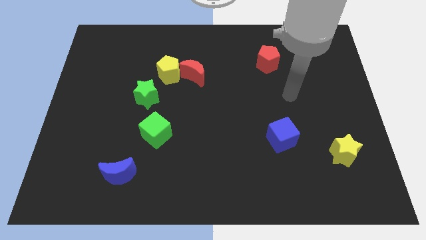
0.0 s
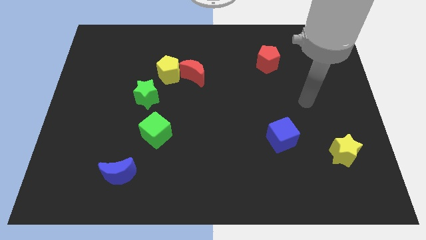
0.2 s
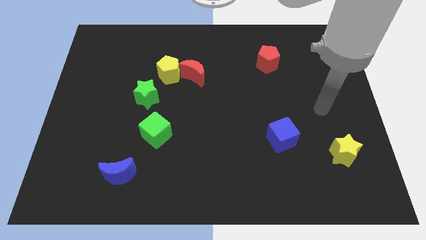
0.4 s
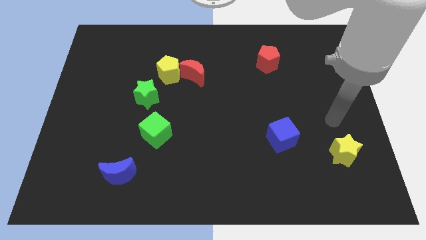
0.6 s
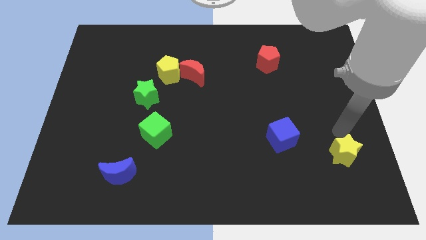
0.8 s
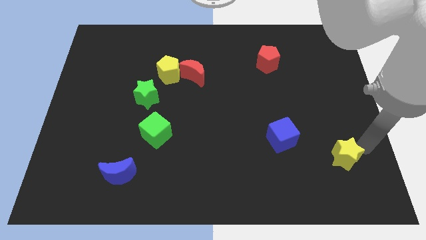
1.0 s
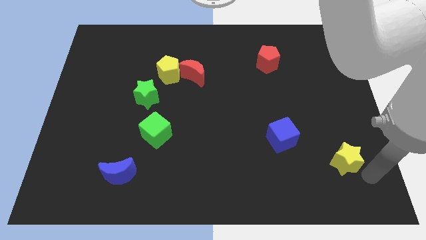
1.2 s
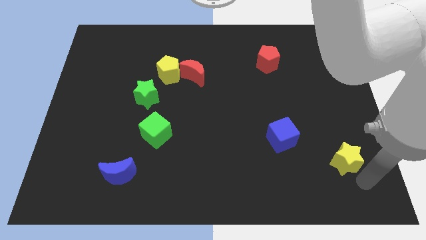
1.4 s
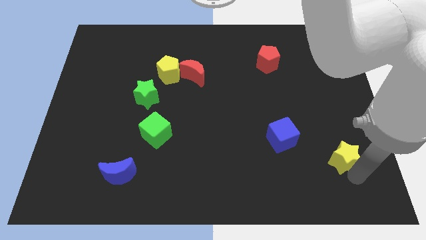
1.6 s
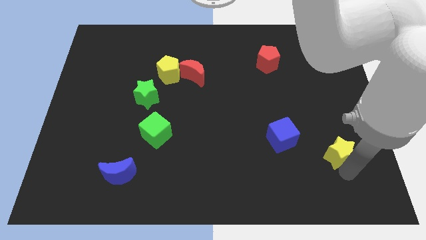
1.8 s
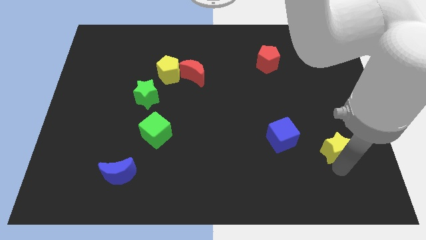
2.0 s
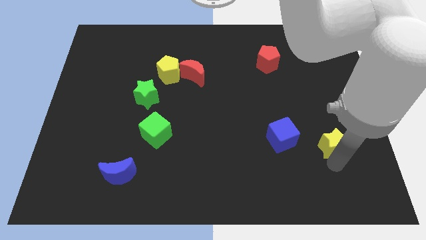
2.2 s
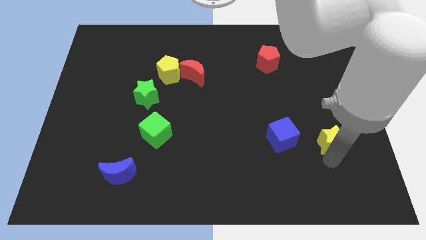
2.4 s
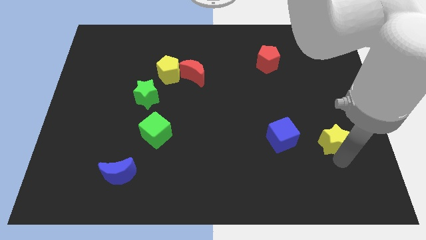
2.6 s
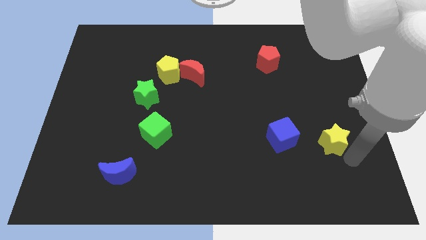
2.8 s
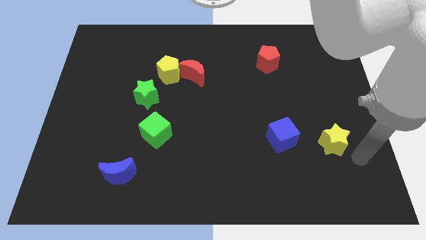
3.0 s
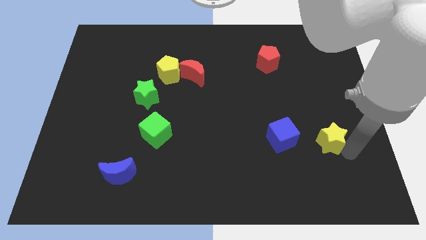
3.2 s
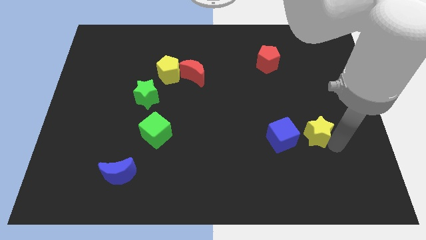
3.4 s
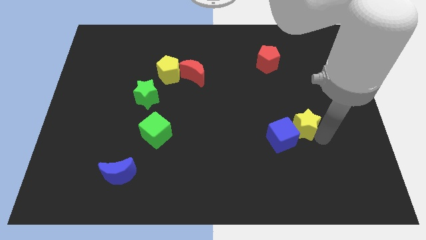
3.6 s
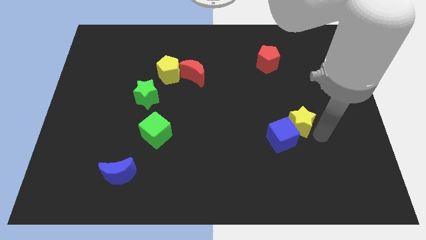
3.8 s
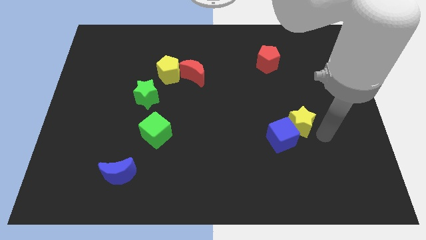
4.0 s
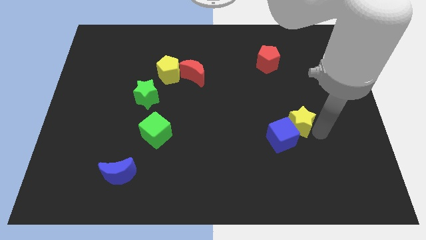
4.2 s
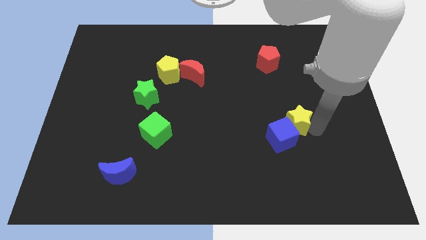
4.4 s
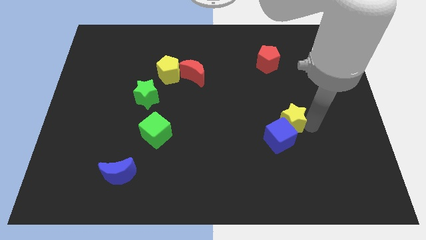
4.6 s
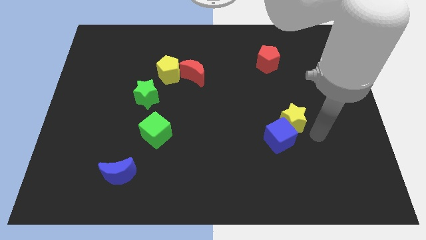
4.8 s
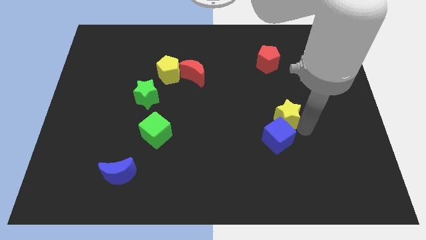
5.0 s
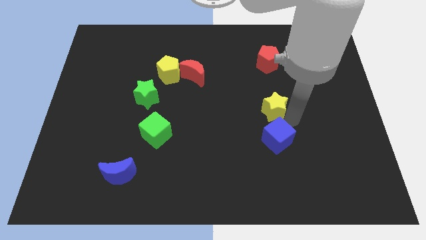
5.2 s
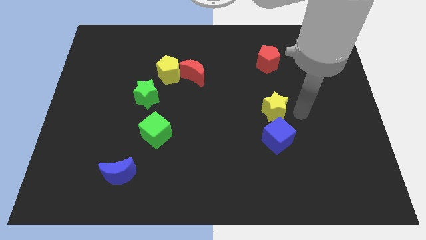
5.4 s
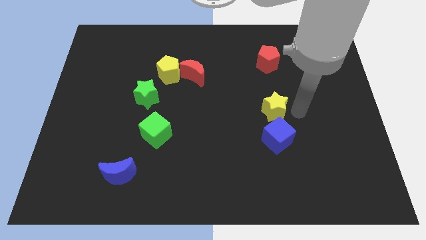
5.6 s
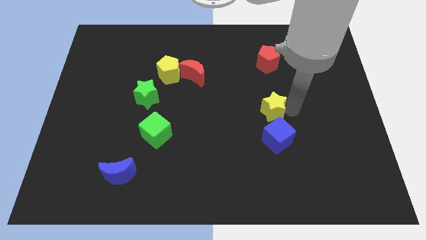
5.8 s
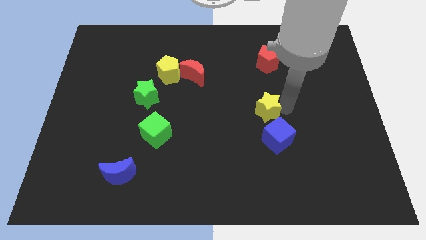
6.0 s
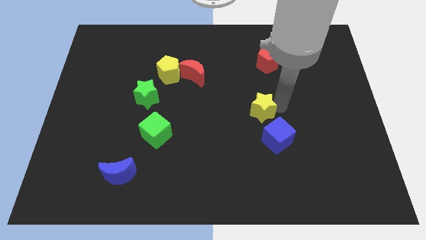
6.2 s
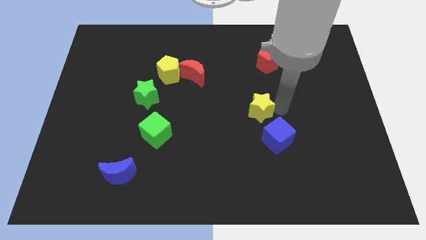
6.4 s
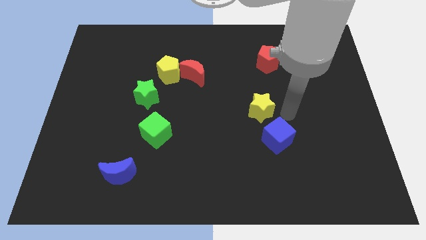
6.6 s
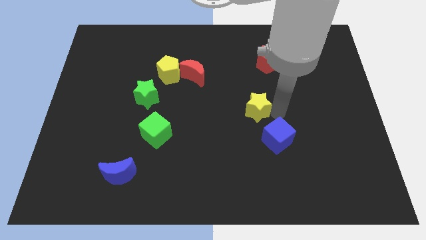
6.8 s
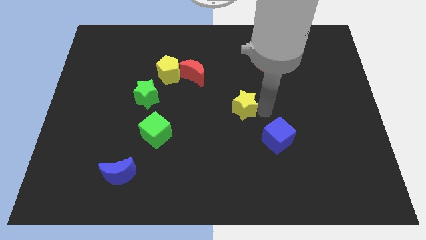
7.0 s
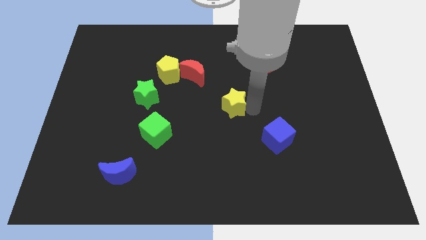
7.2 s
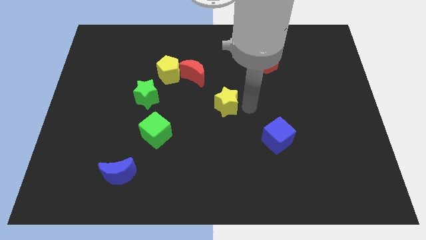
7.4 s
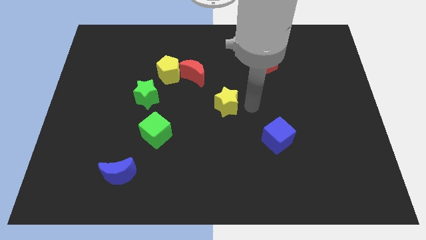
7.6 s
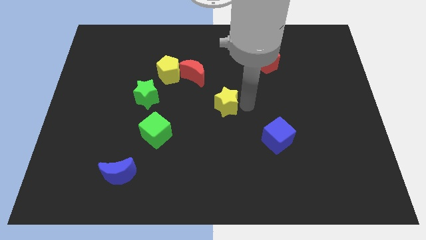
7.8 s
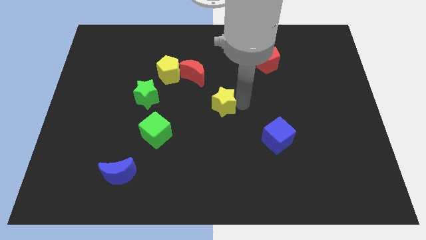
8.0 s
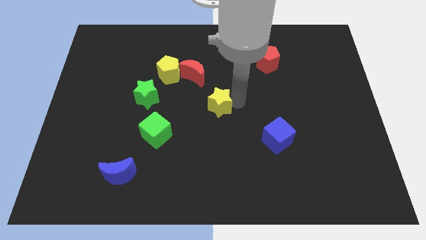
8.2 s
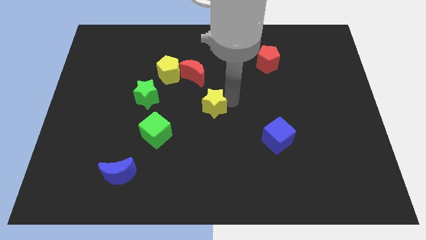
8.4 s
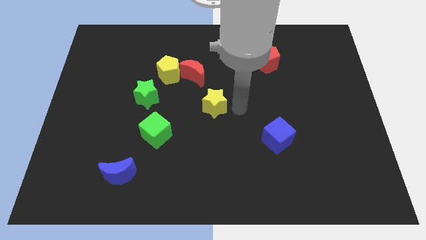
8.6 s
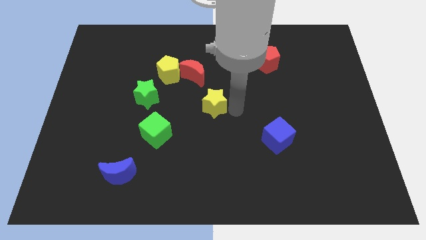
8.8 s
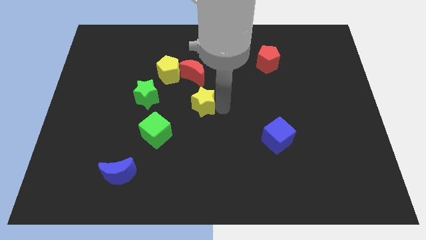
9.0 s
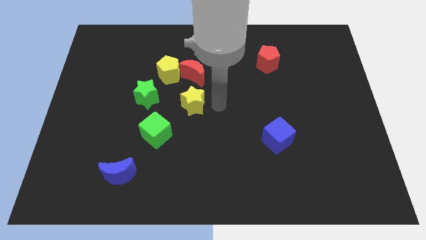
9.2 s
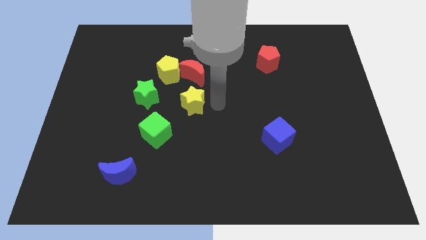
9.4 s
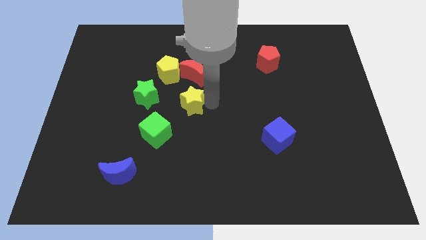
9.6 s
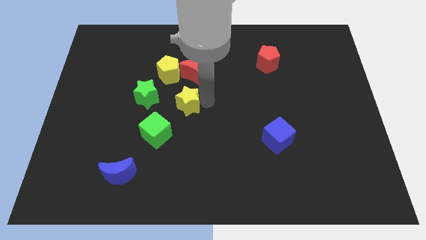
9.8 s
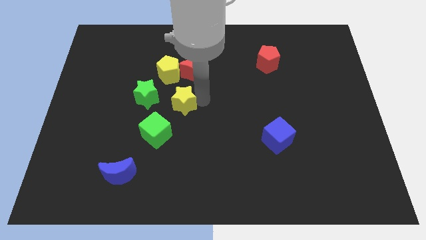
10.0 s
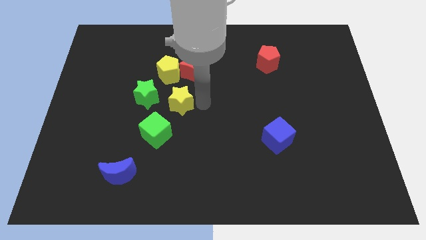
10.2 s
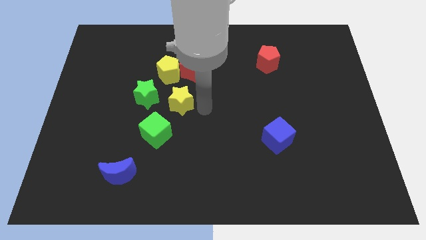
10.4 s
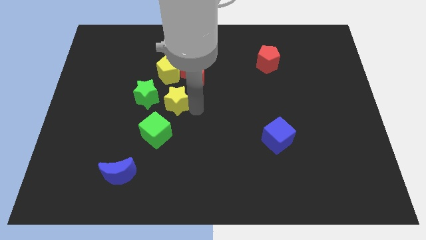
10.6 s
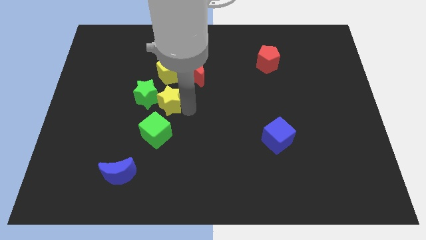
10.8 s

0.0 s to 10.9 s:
push the yellow star towards the green star

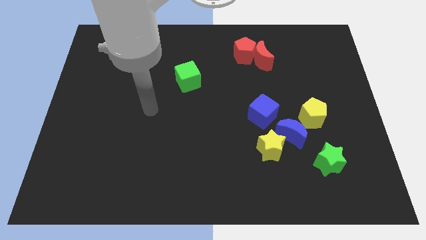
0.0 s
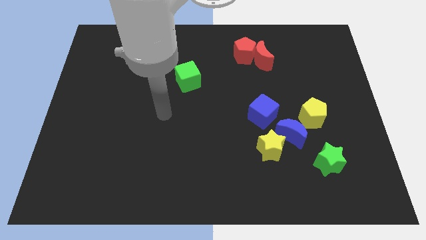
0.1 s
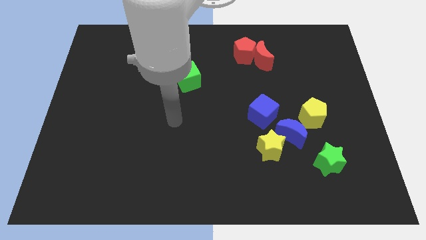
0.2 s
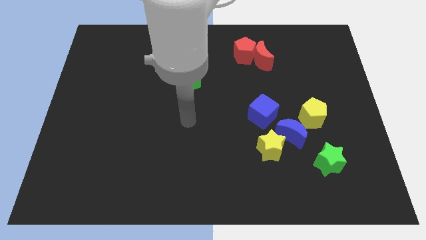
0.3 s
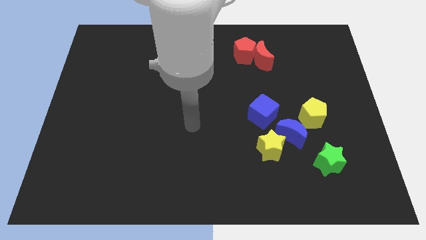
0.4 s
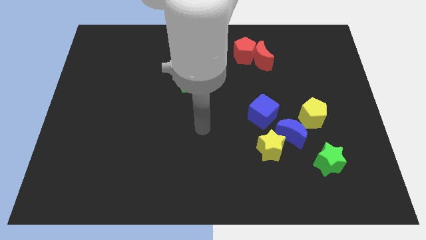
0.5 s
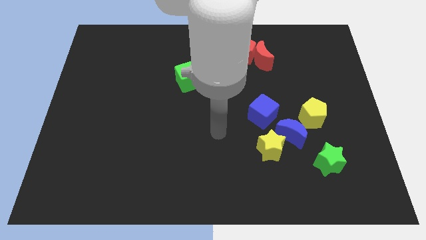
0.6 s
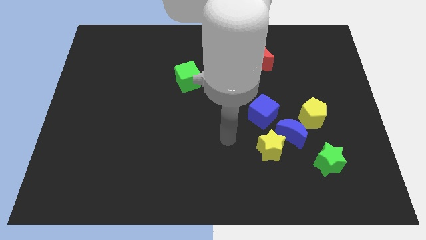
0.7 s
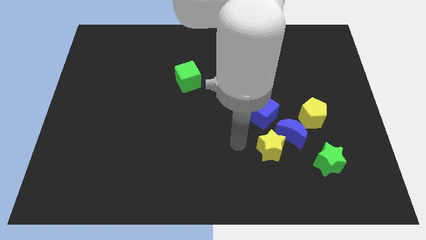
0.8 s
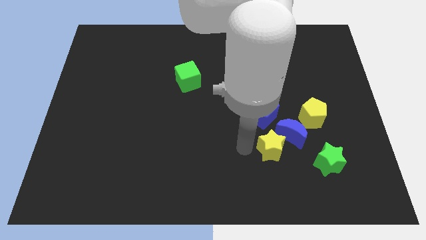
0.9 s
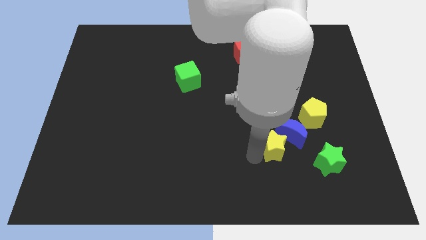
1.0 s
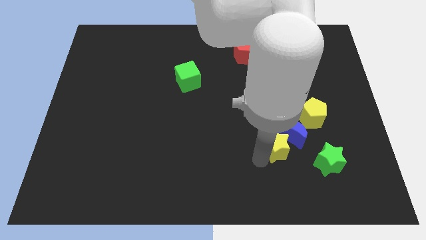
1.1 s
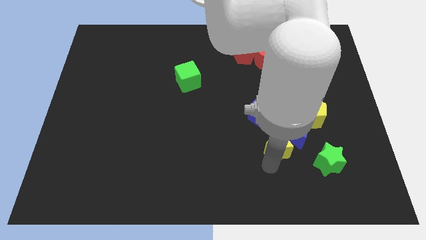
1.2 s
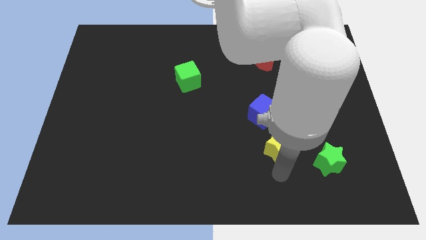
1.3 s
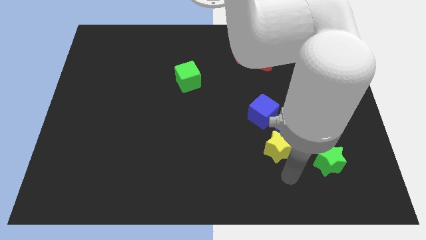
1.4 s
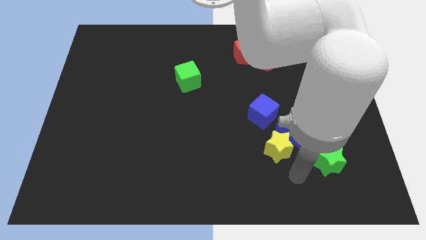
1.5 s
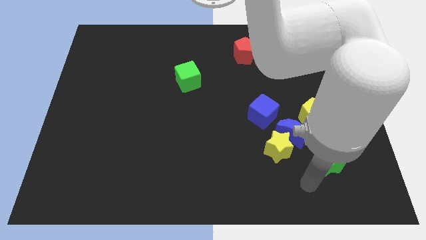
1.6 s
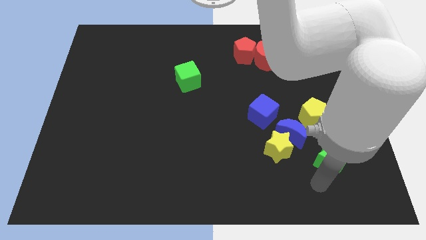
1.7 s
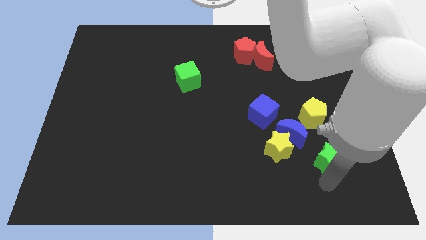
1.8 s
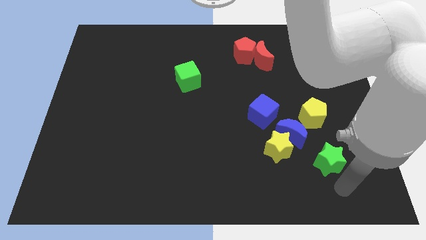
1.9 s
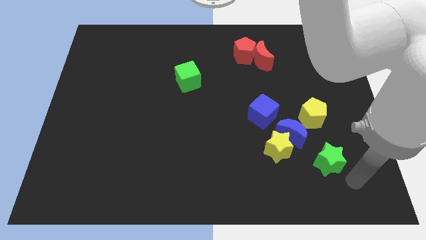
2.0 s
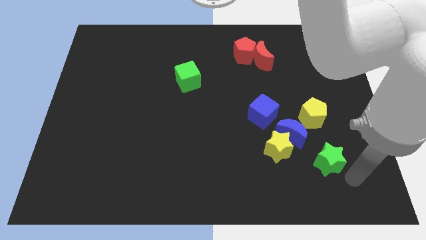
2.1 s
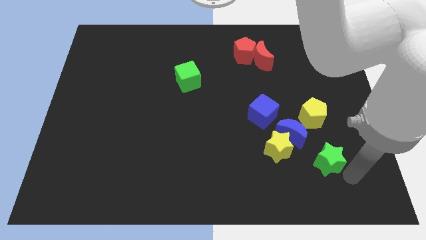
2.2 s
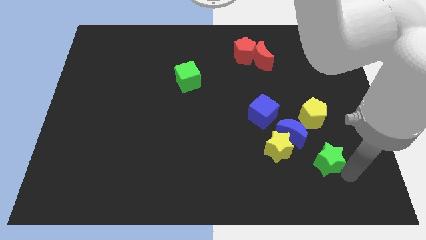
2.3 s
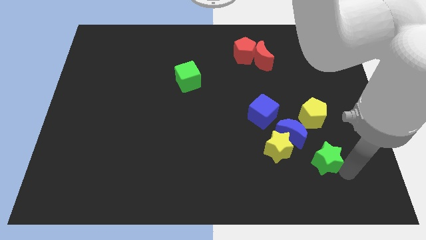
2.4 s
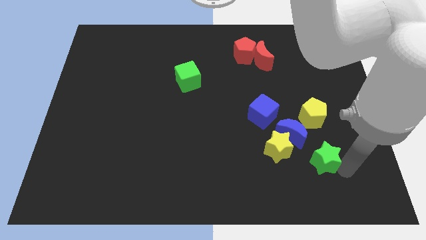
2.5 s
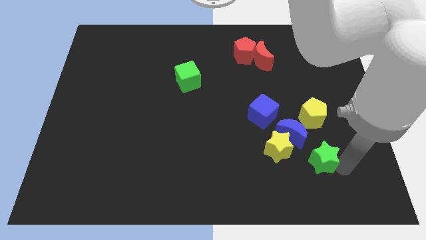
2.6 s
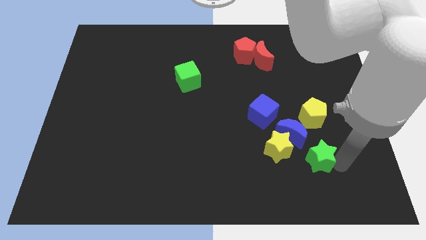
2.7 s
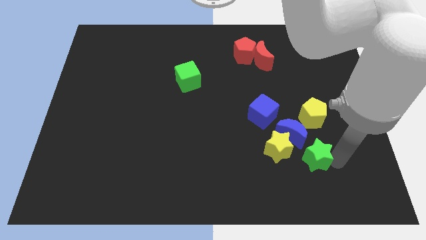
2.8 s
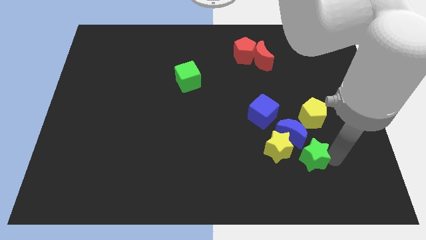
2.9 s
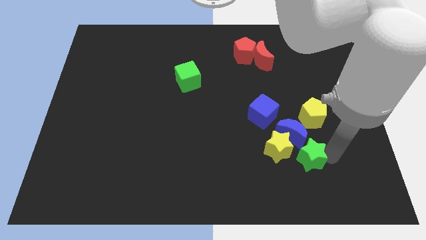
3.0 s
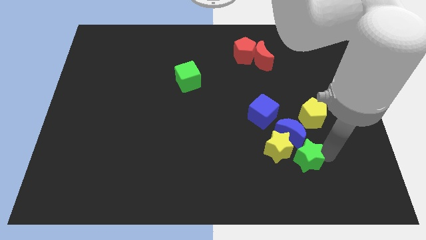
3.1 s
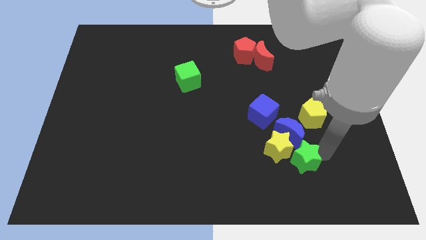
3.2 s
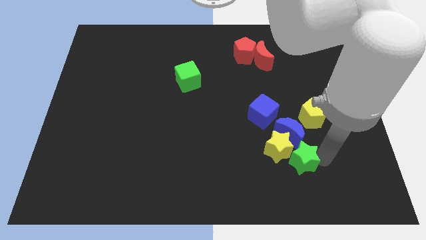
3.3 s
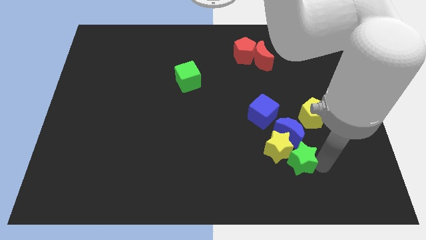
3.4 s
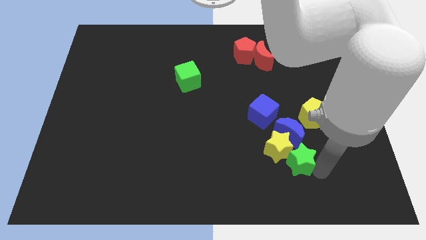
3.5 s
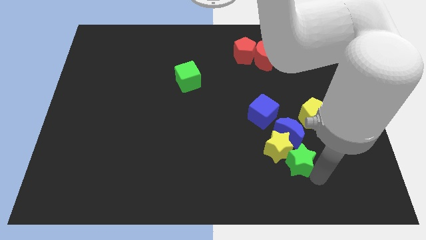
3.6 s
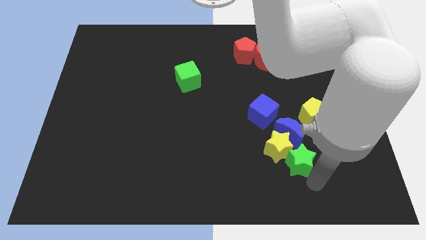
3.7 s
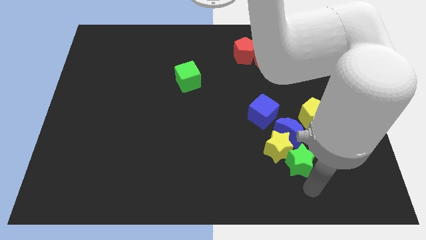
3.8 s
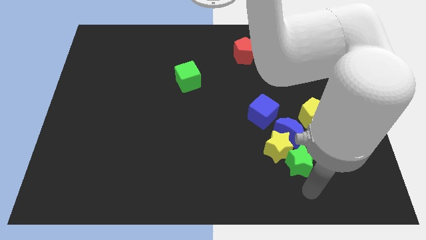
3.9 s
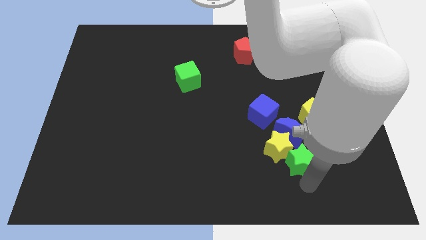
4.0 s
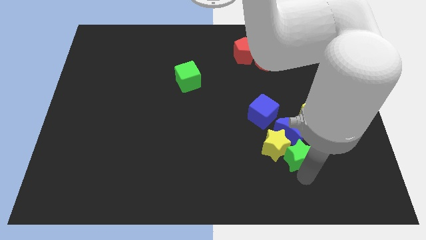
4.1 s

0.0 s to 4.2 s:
move the green star close to the blue moon
